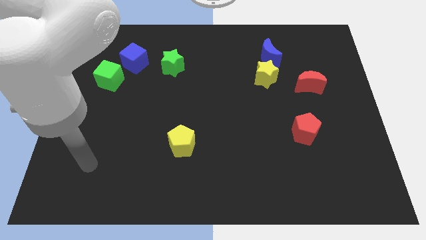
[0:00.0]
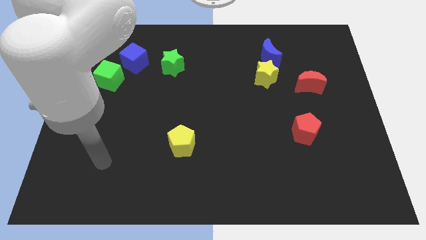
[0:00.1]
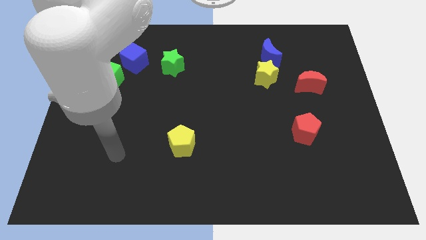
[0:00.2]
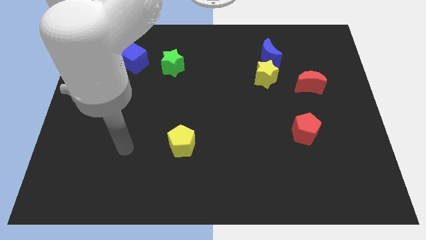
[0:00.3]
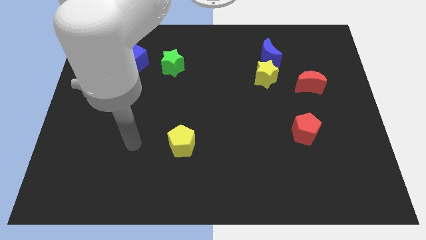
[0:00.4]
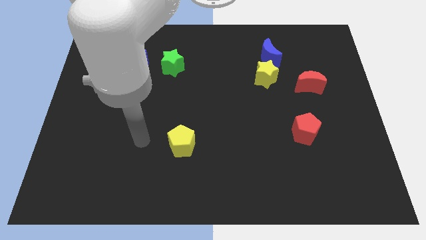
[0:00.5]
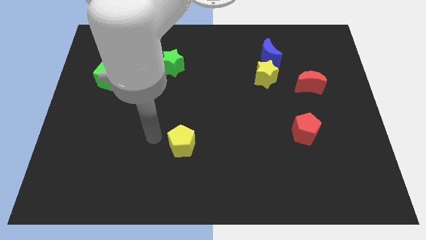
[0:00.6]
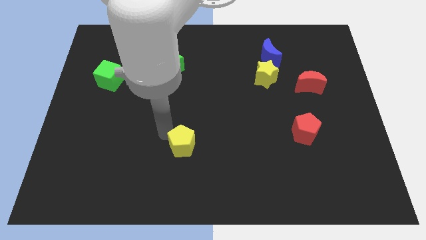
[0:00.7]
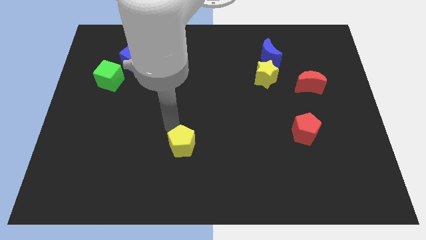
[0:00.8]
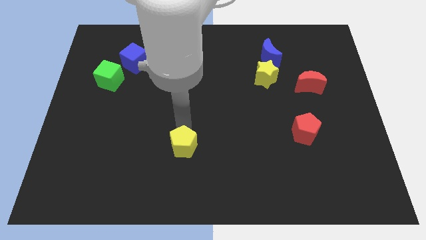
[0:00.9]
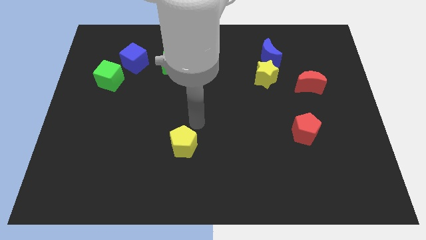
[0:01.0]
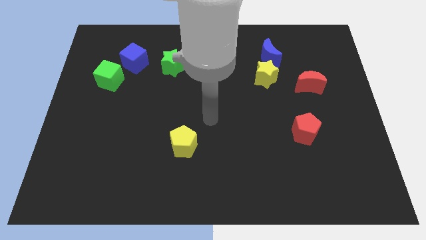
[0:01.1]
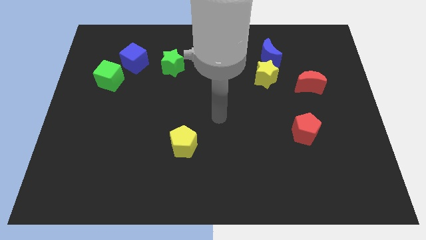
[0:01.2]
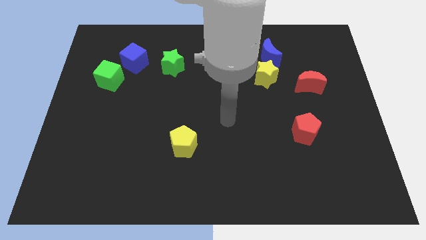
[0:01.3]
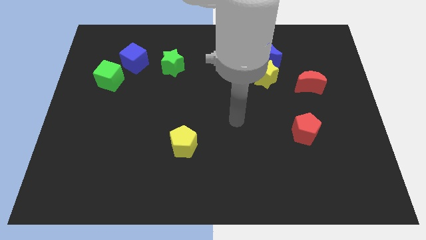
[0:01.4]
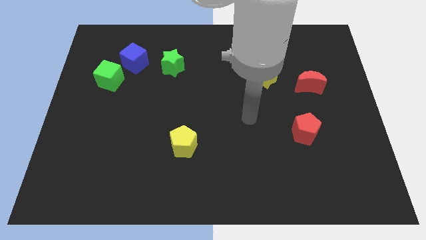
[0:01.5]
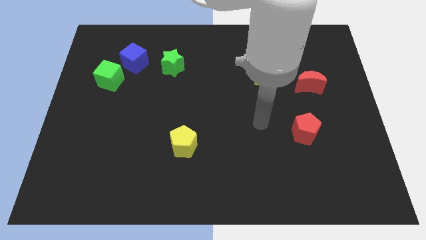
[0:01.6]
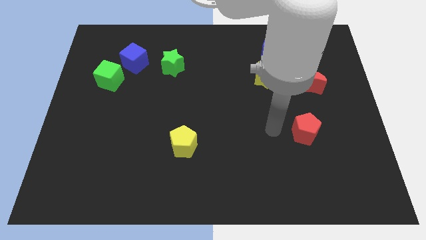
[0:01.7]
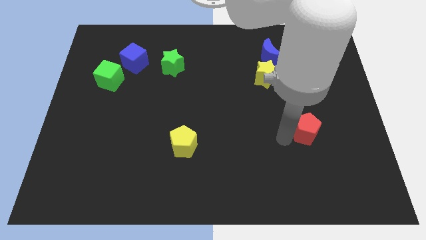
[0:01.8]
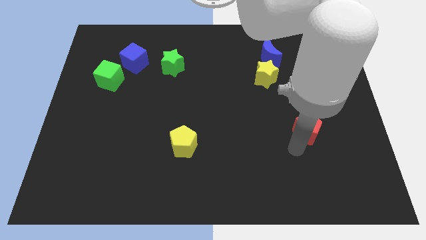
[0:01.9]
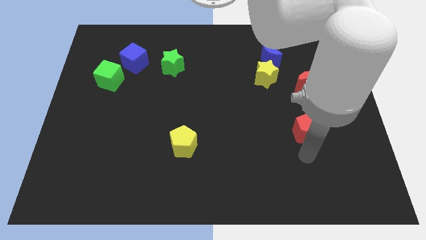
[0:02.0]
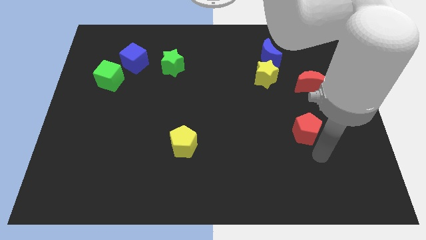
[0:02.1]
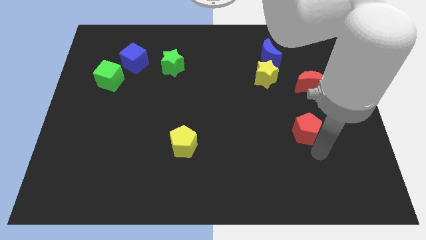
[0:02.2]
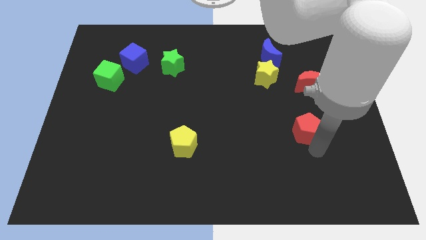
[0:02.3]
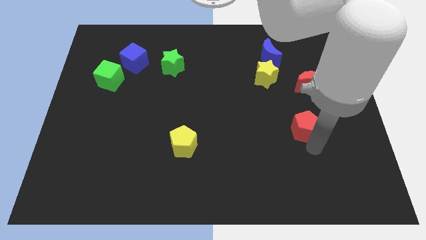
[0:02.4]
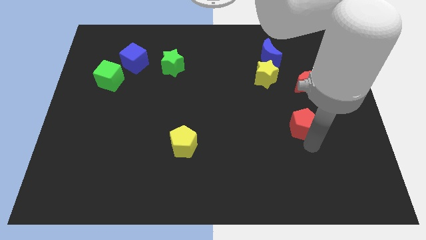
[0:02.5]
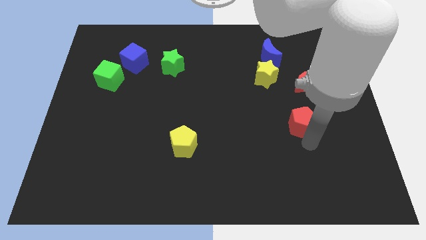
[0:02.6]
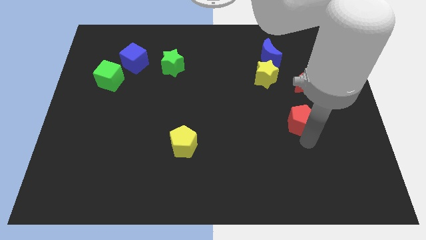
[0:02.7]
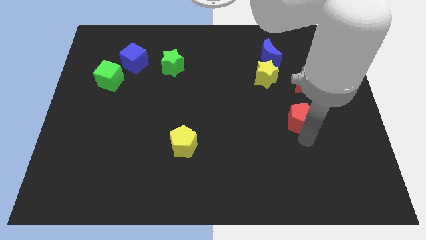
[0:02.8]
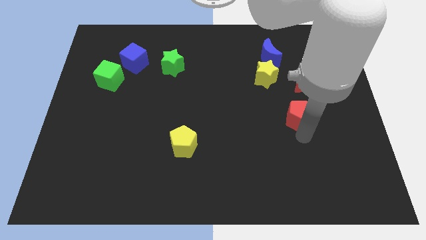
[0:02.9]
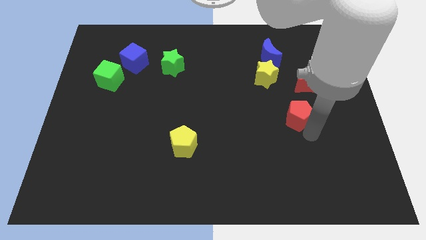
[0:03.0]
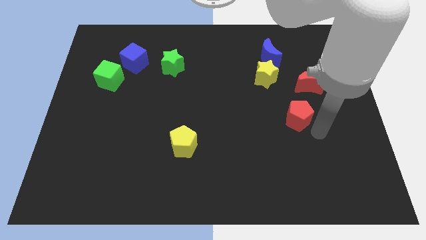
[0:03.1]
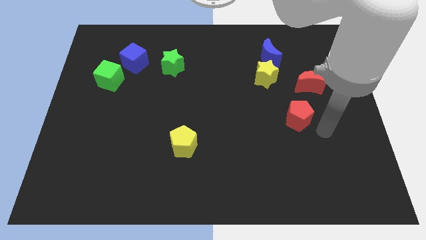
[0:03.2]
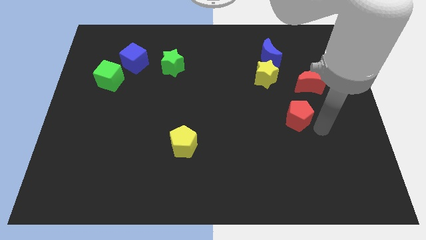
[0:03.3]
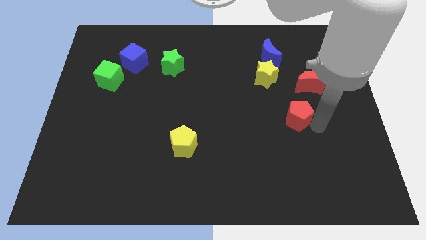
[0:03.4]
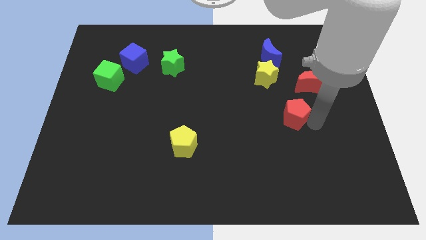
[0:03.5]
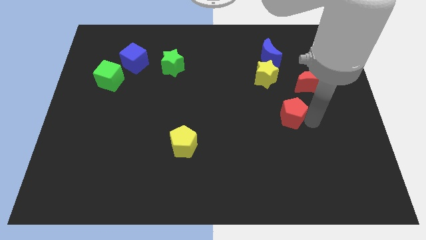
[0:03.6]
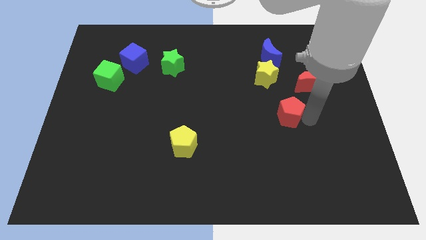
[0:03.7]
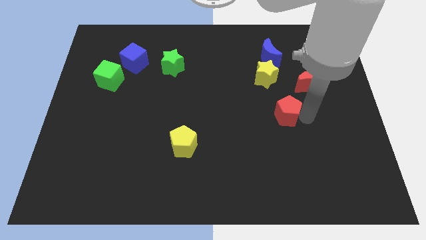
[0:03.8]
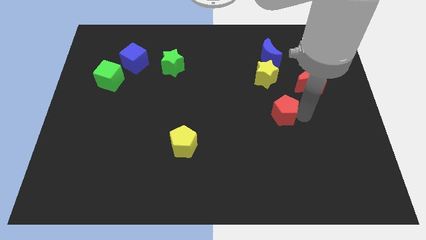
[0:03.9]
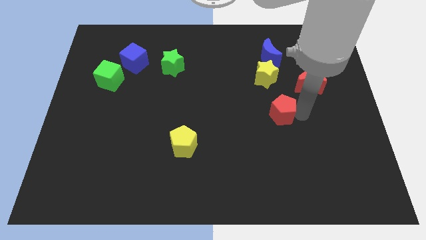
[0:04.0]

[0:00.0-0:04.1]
slide the red pentagon somewhat diagonally up and left

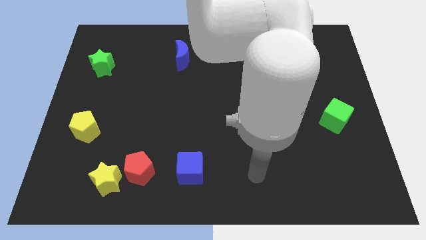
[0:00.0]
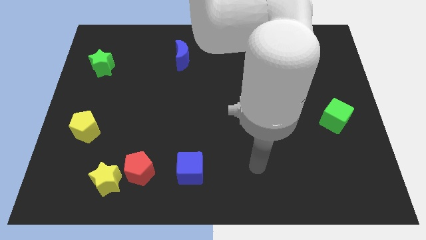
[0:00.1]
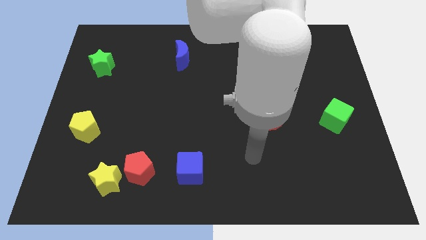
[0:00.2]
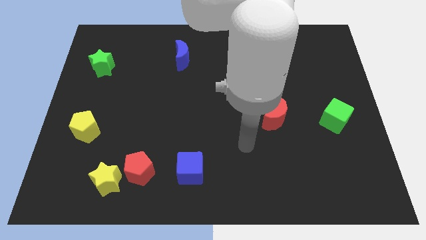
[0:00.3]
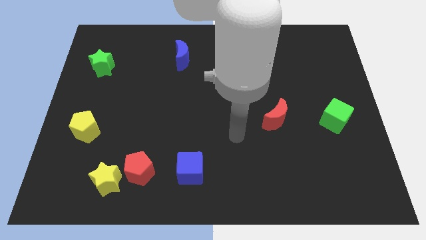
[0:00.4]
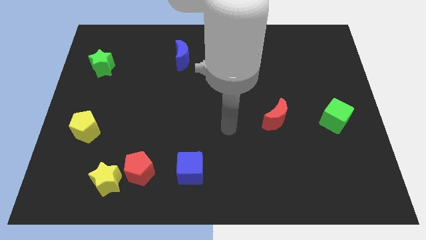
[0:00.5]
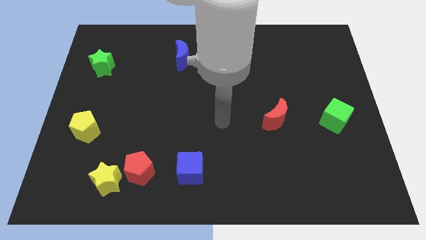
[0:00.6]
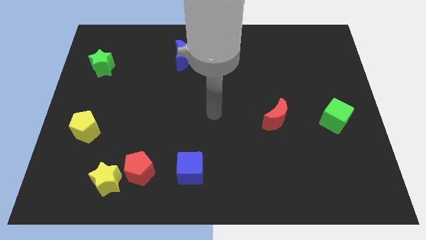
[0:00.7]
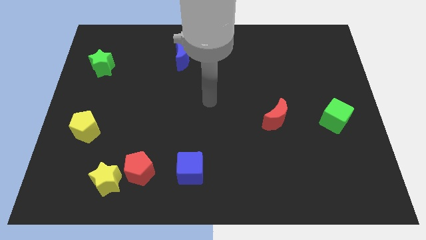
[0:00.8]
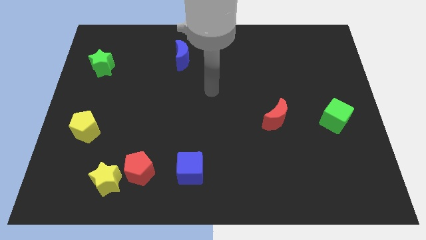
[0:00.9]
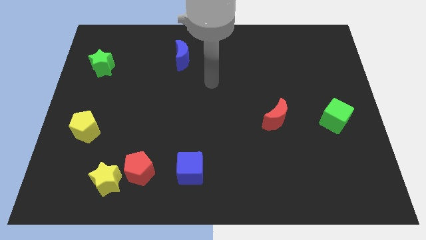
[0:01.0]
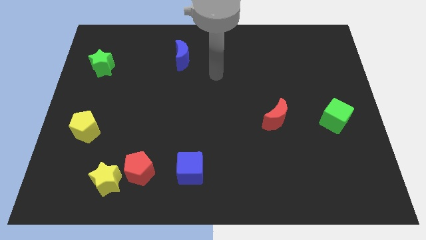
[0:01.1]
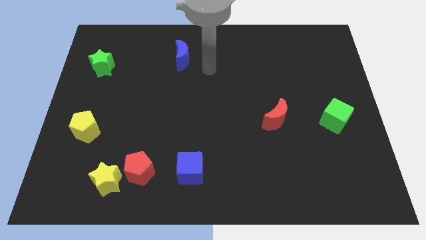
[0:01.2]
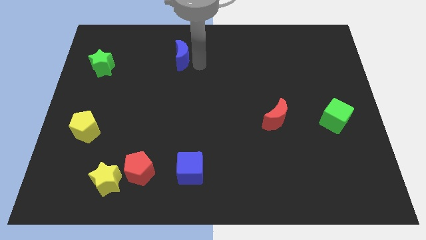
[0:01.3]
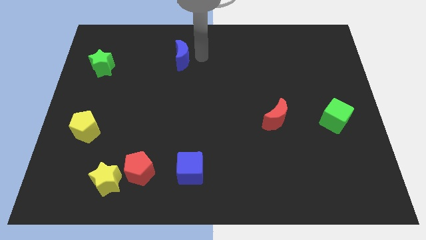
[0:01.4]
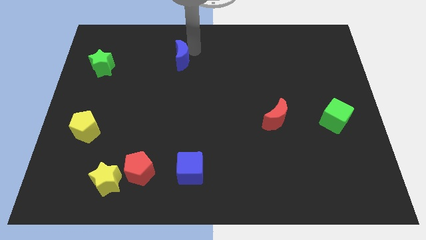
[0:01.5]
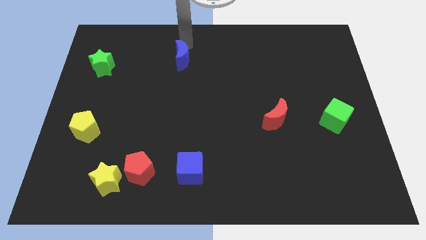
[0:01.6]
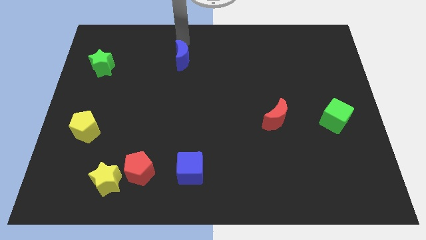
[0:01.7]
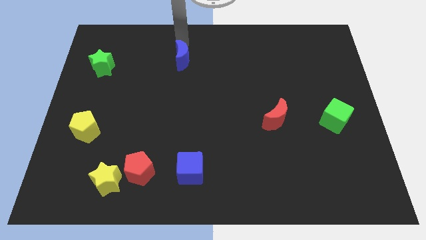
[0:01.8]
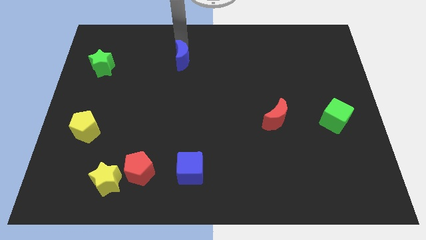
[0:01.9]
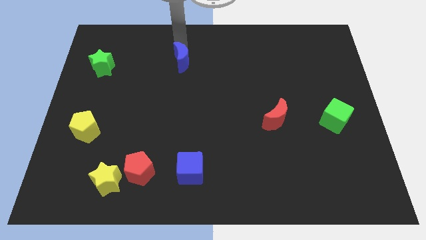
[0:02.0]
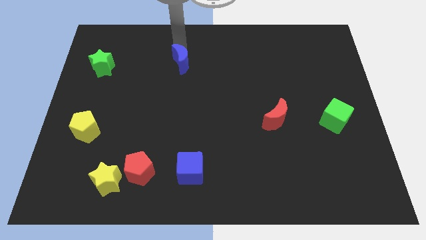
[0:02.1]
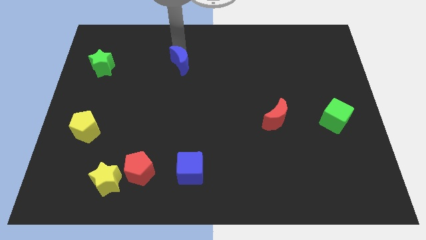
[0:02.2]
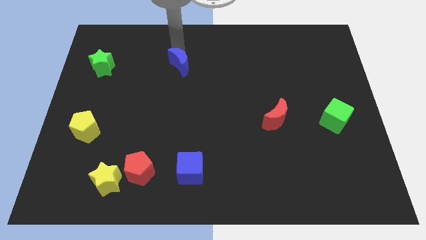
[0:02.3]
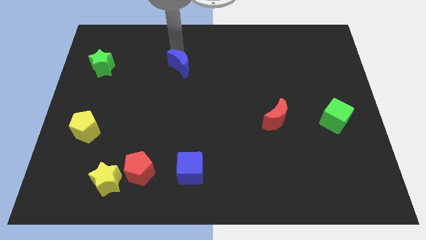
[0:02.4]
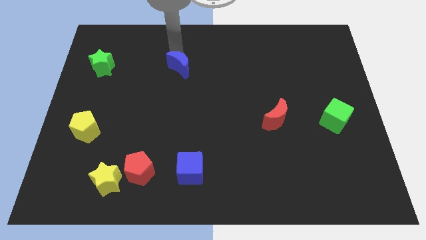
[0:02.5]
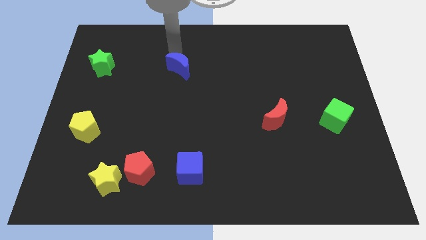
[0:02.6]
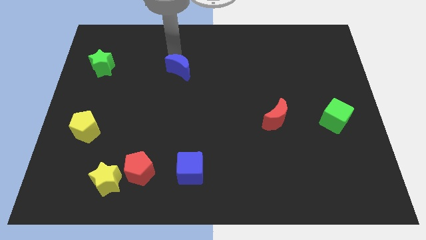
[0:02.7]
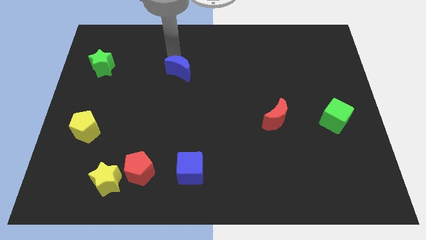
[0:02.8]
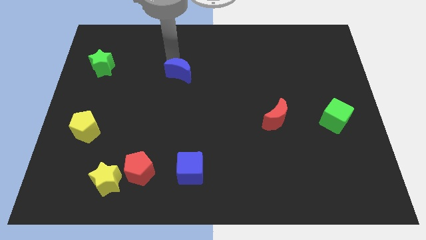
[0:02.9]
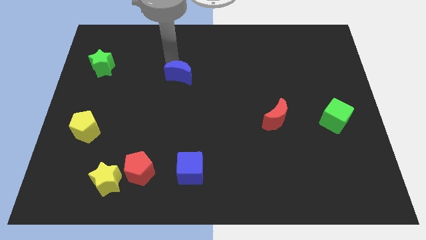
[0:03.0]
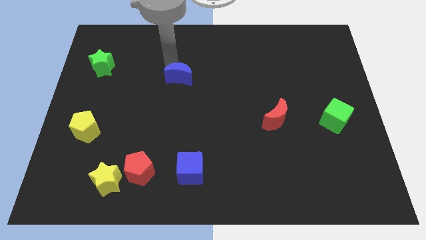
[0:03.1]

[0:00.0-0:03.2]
slightly push the blue moon downwards

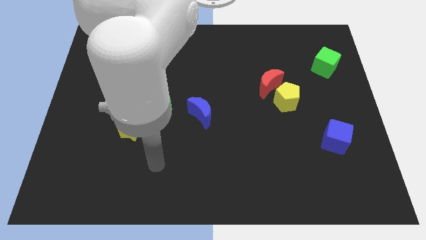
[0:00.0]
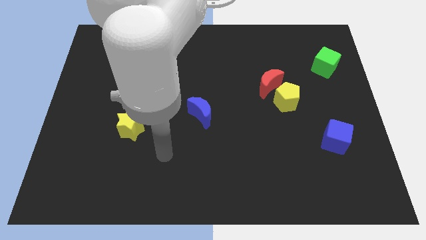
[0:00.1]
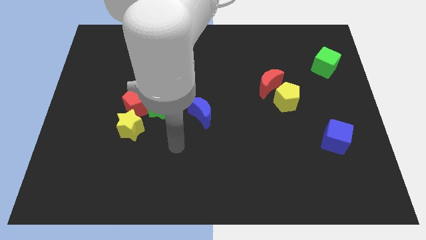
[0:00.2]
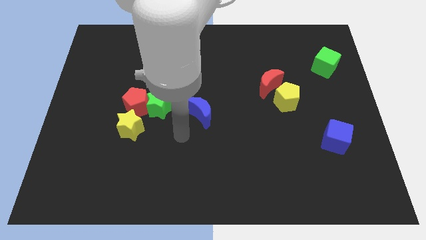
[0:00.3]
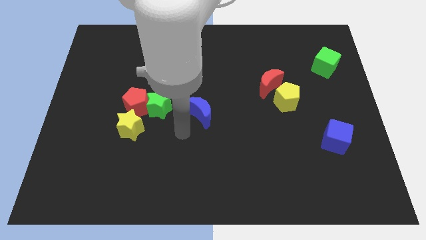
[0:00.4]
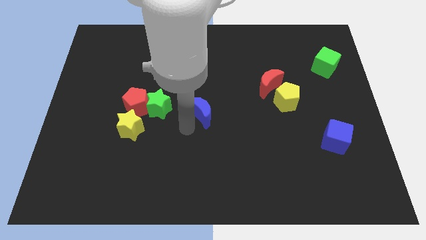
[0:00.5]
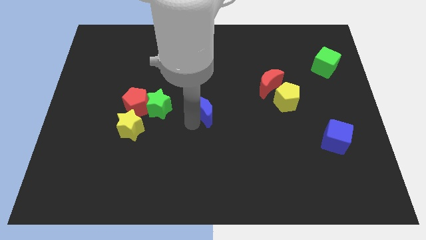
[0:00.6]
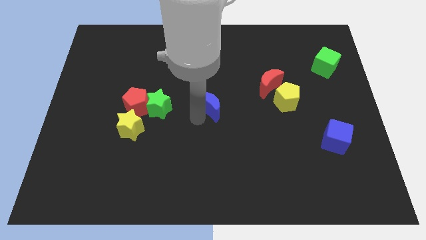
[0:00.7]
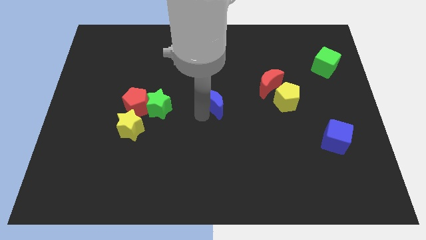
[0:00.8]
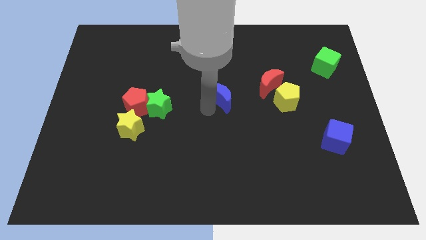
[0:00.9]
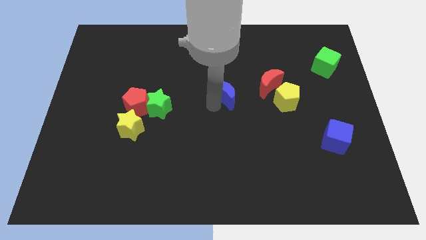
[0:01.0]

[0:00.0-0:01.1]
move the blue moon up and then to the right a bit

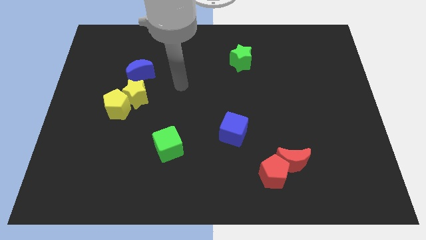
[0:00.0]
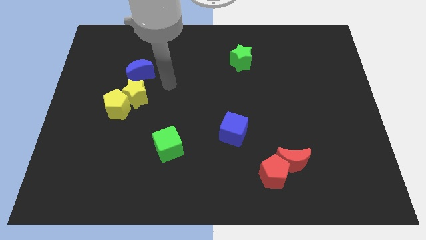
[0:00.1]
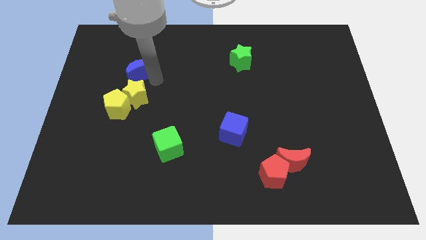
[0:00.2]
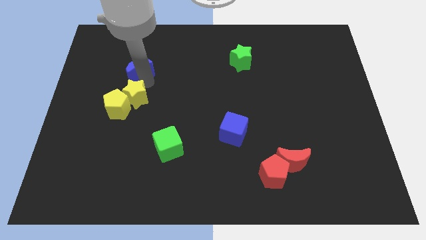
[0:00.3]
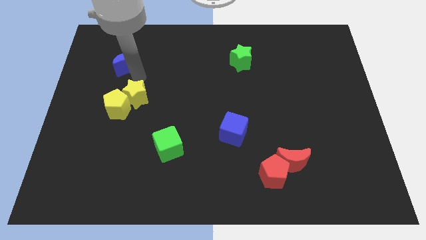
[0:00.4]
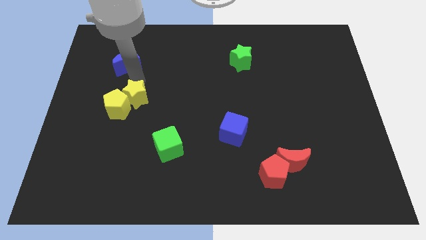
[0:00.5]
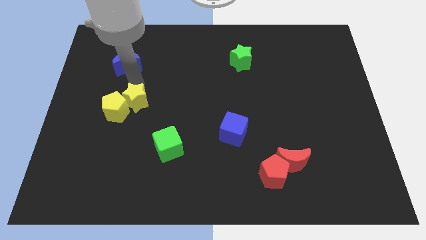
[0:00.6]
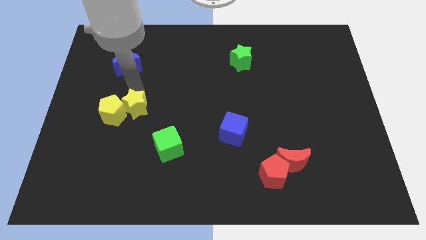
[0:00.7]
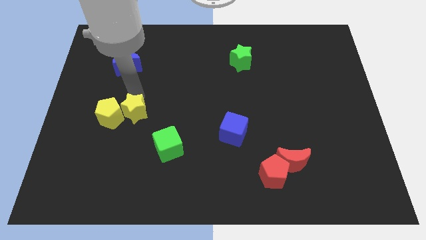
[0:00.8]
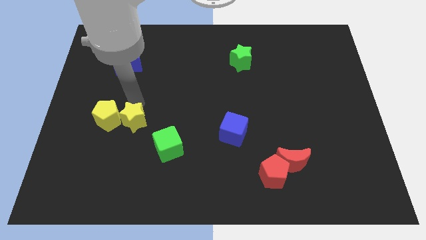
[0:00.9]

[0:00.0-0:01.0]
slightly push the yellow star downwards
